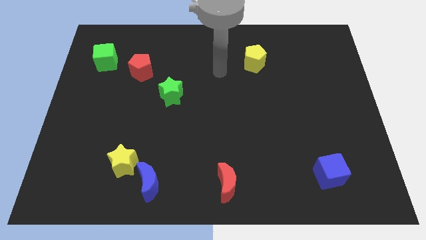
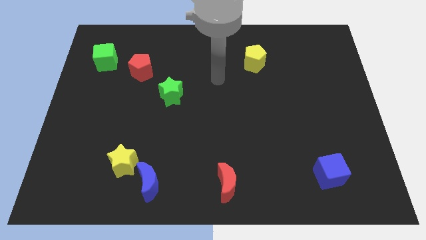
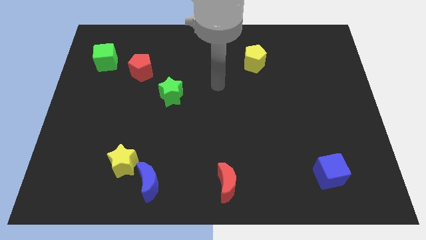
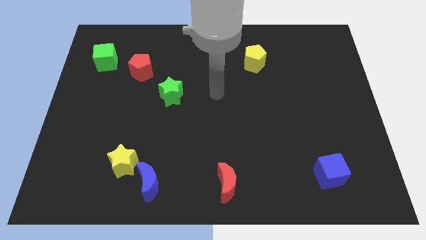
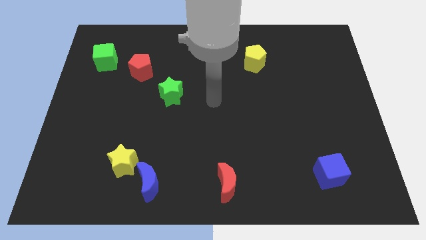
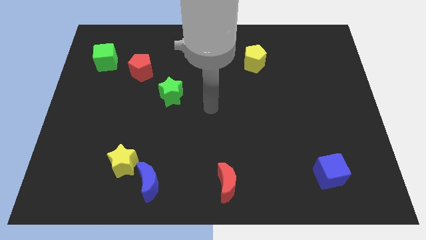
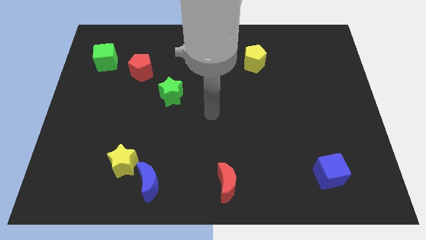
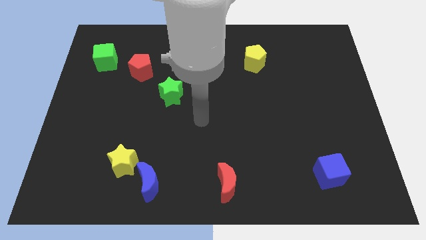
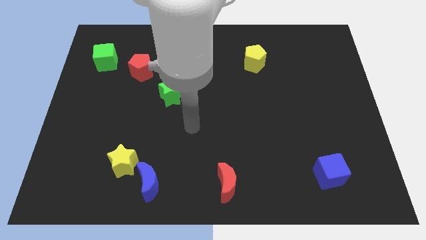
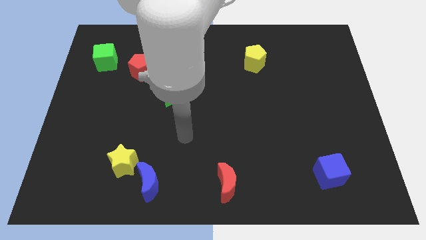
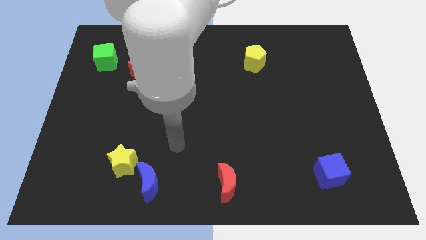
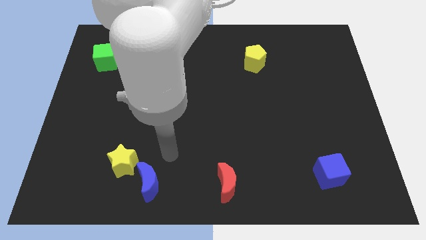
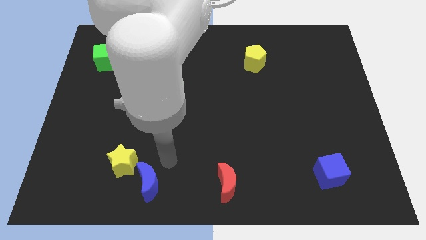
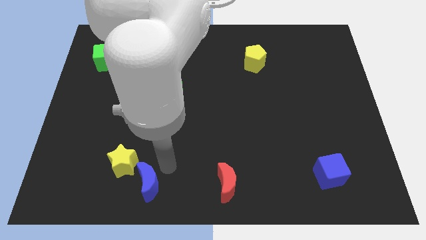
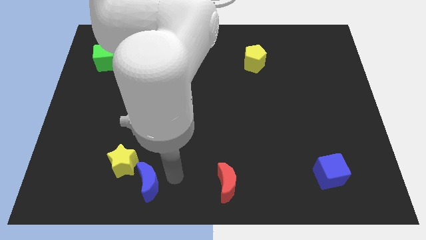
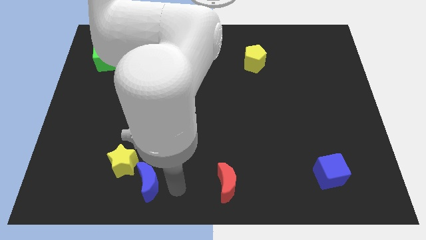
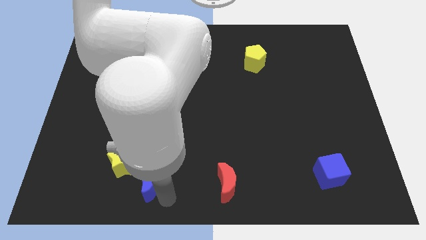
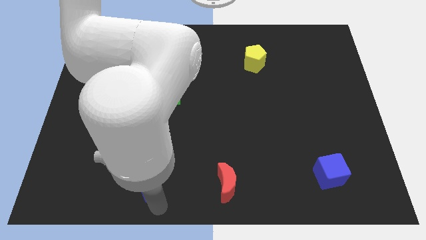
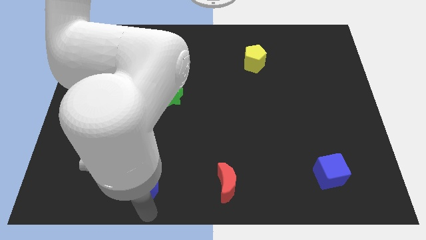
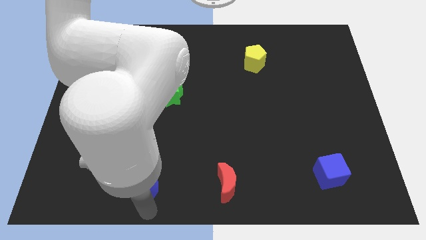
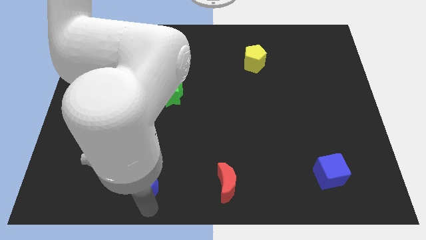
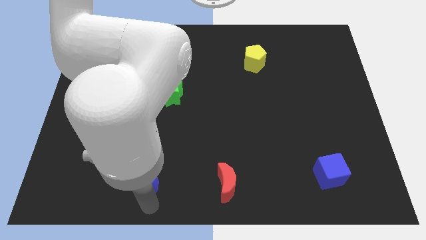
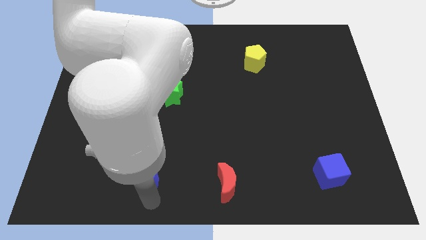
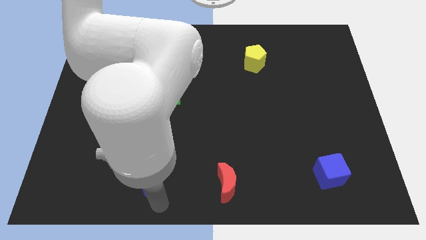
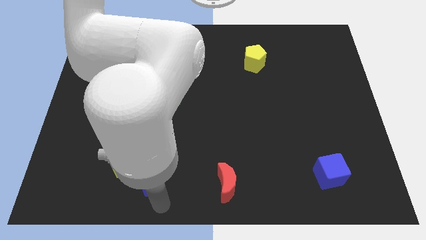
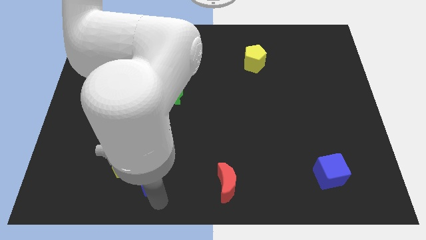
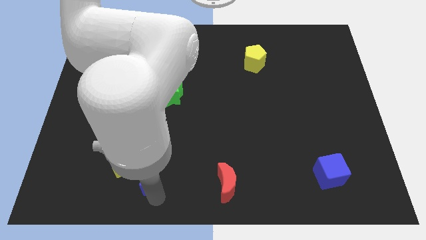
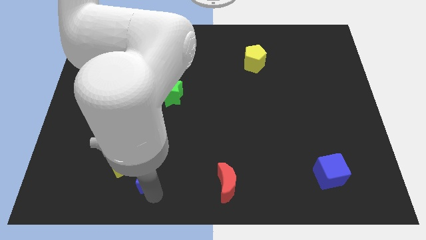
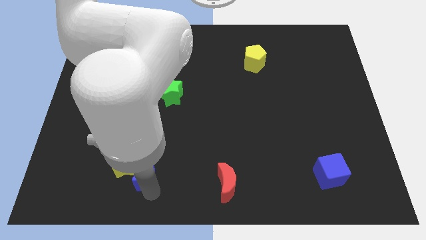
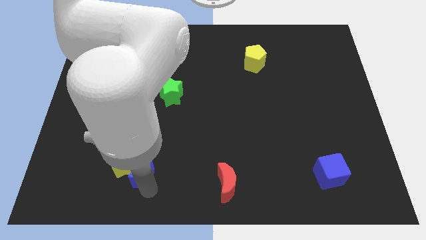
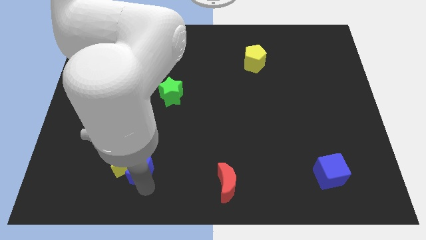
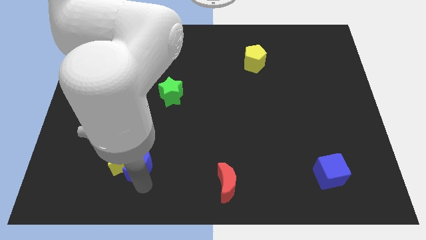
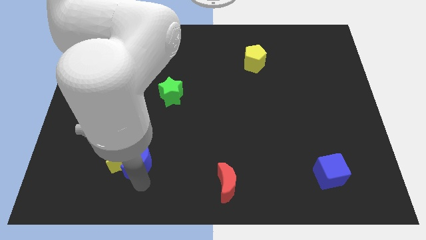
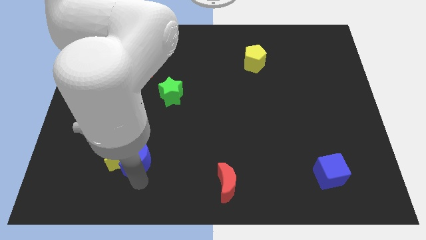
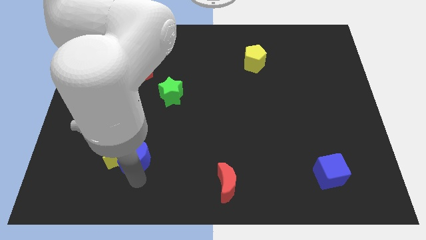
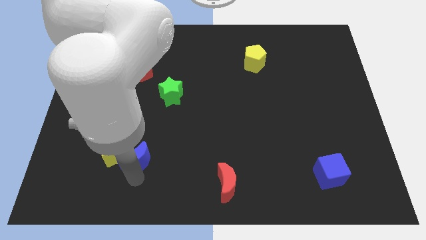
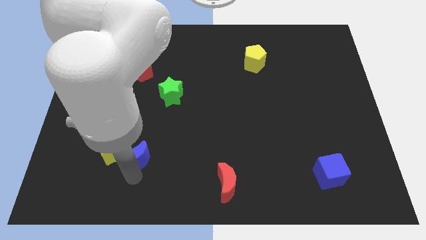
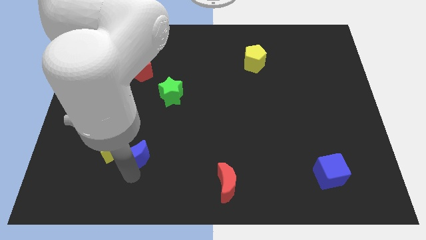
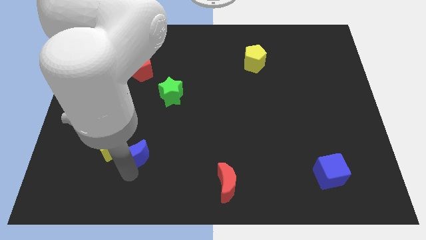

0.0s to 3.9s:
slide the blue moon somewhat up and left diagonally

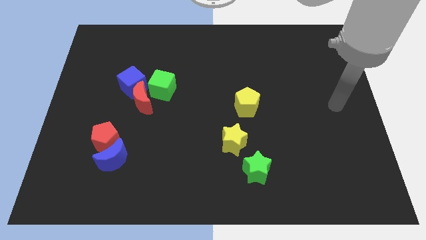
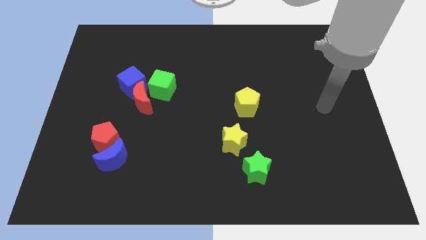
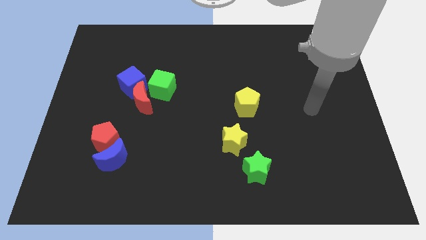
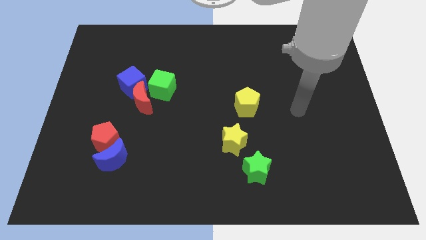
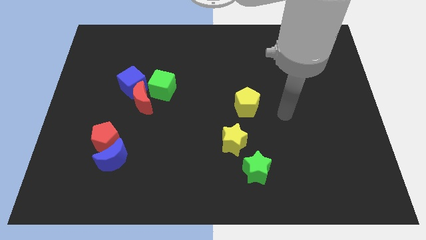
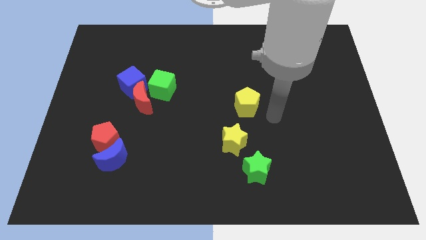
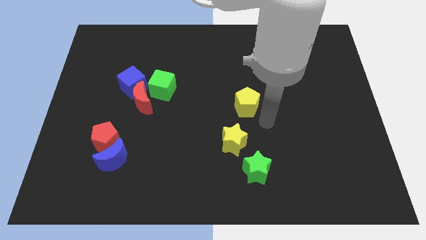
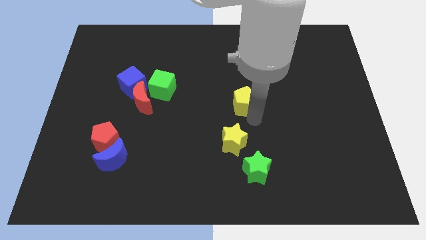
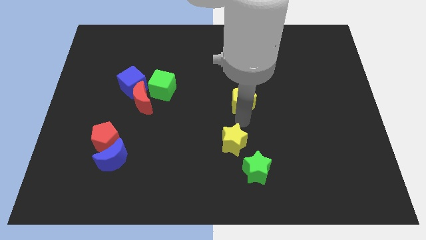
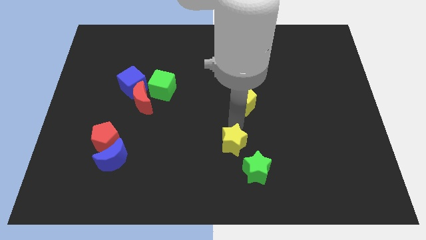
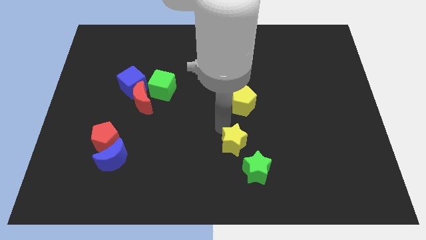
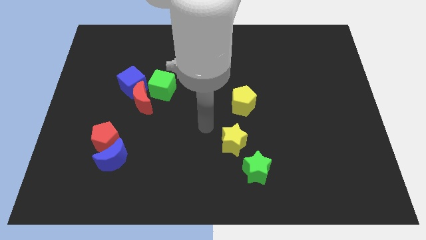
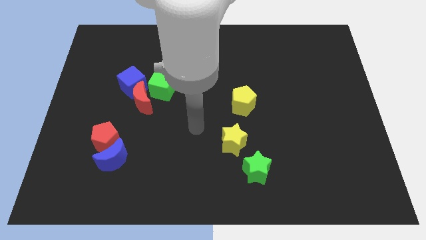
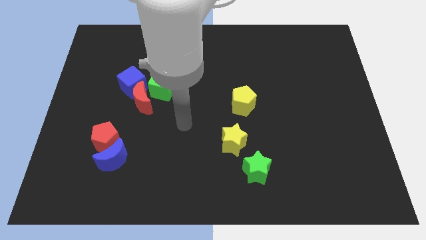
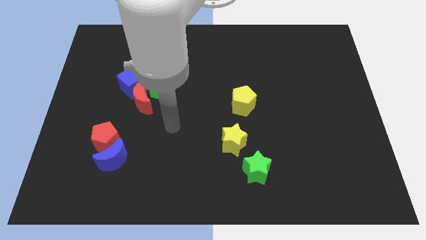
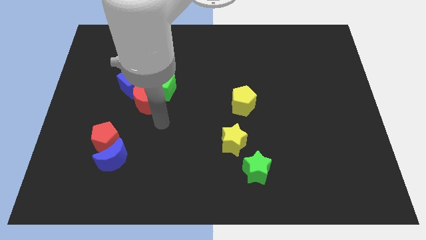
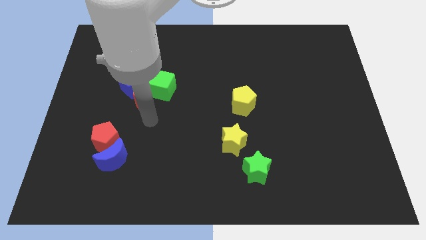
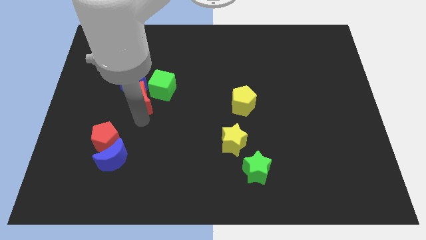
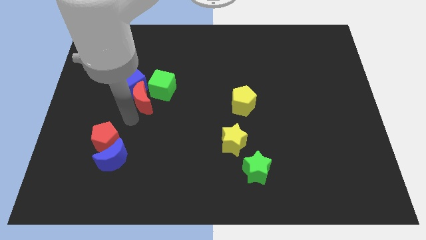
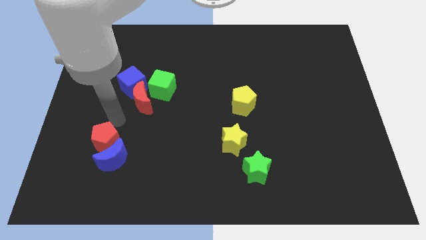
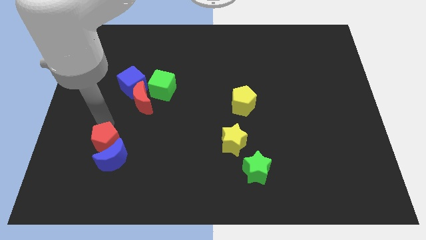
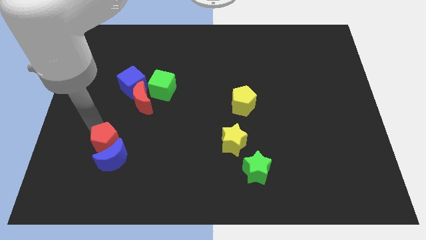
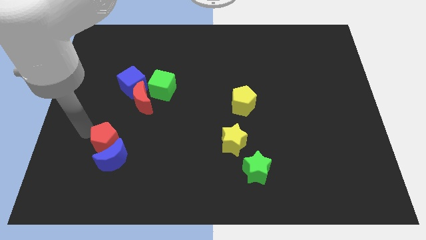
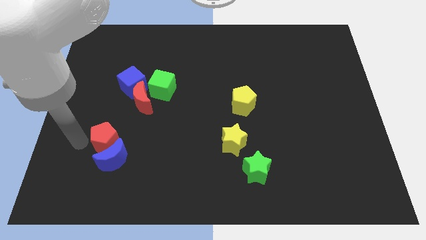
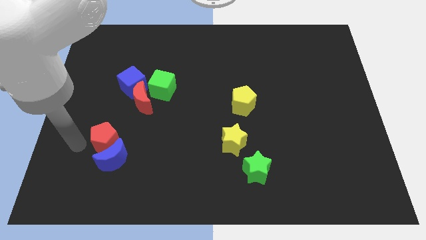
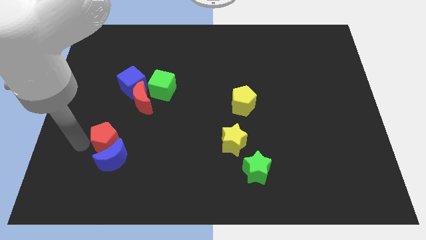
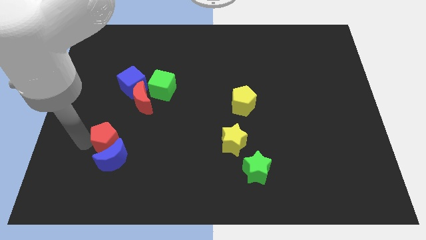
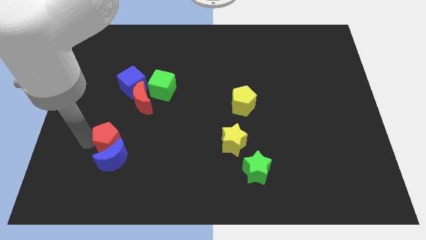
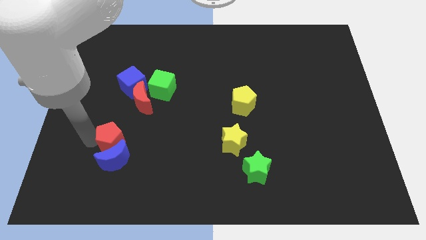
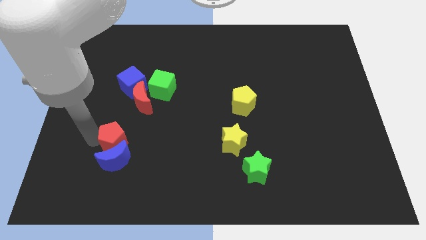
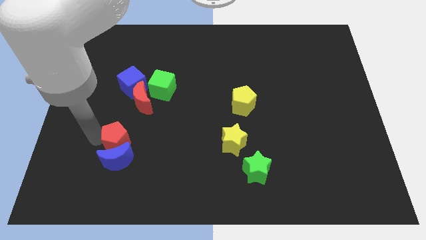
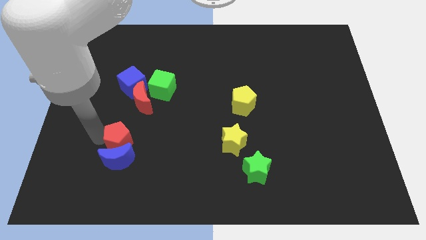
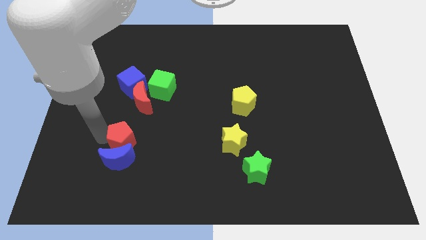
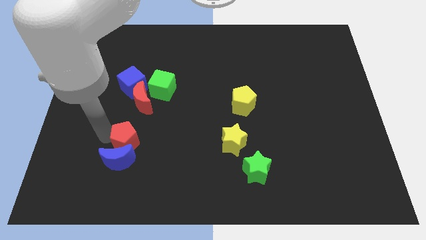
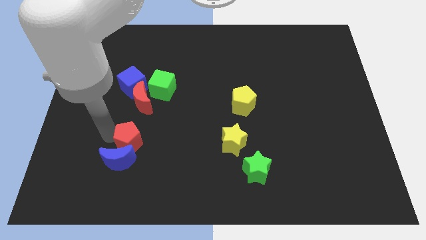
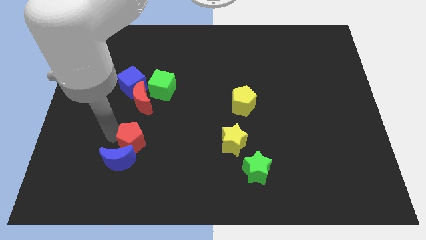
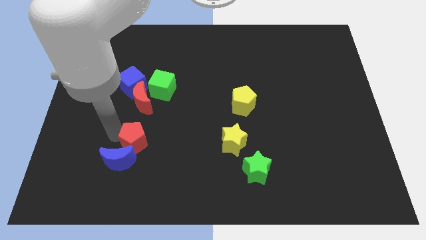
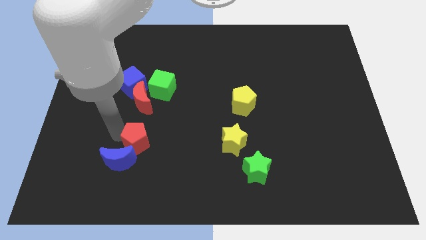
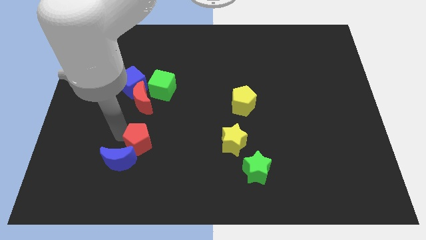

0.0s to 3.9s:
slightly slide the red pentagon to the right

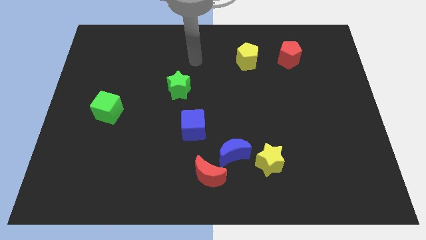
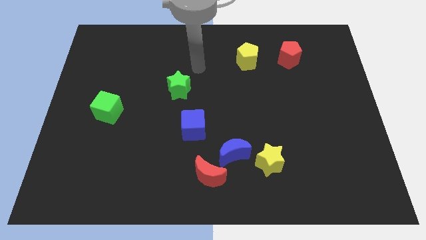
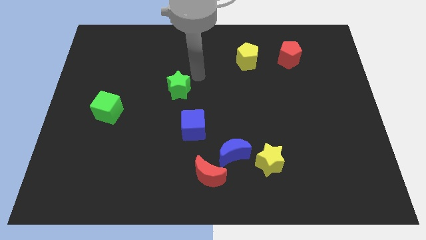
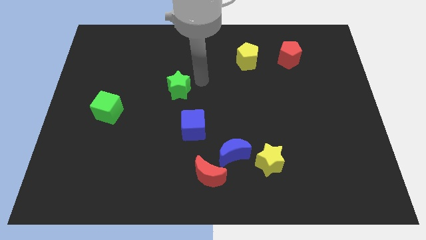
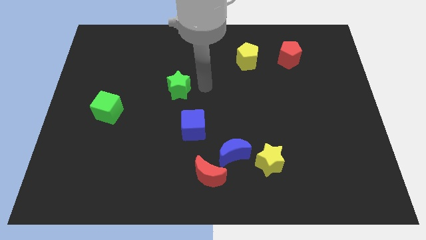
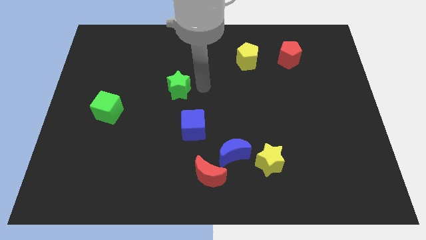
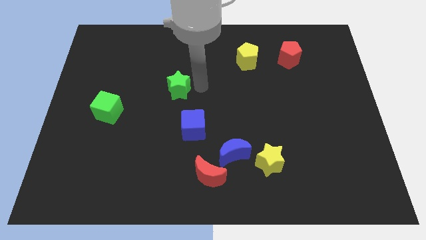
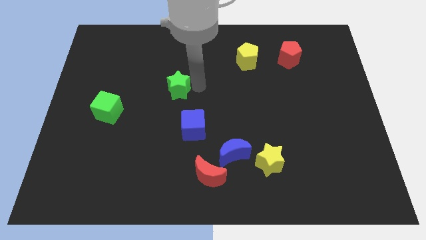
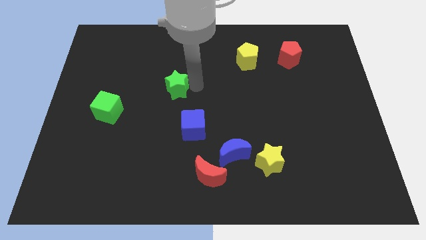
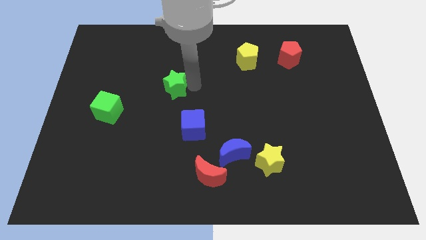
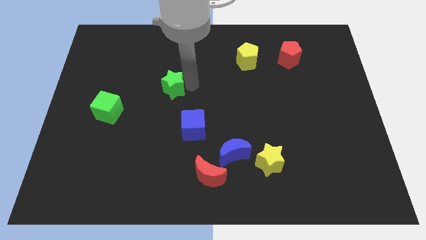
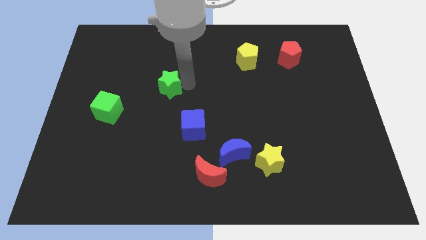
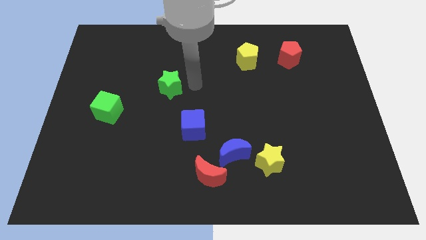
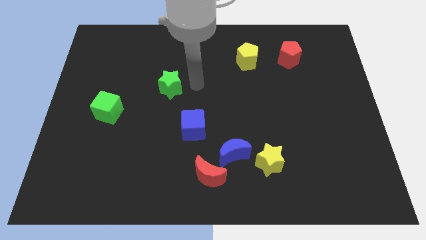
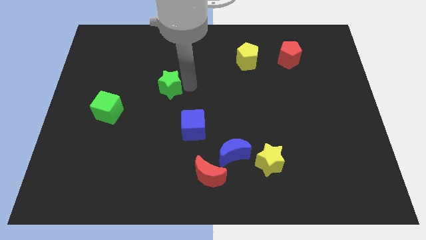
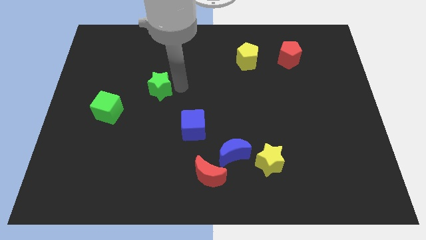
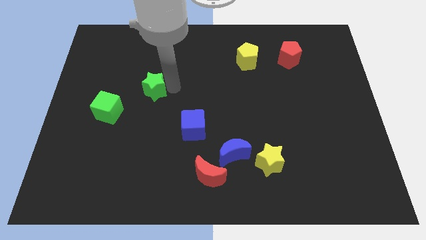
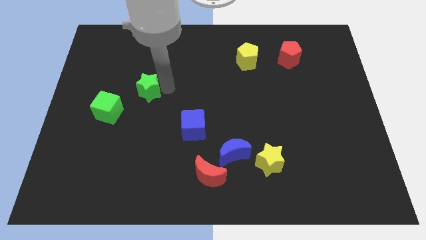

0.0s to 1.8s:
slightly move the green star to the left
